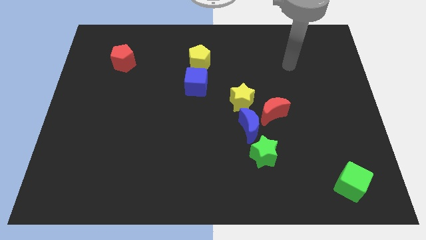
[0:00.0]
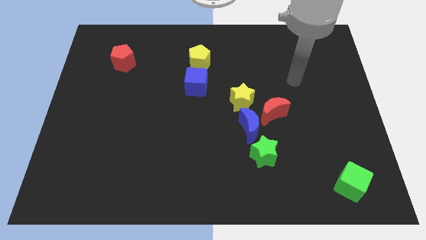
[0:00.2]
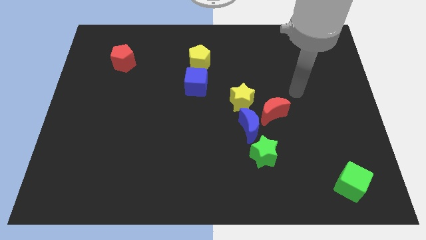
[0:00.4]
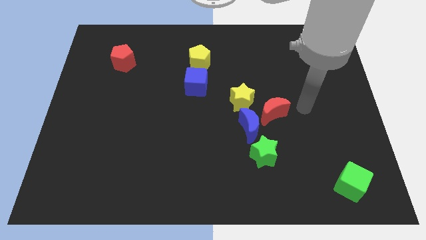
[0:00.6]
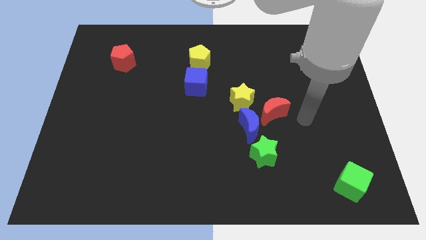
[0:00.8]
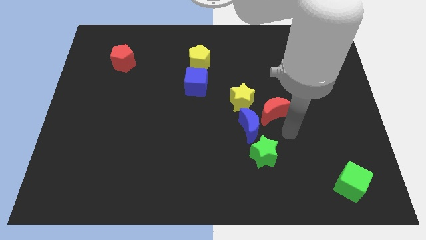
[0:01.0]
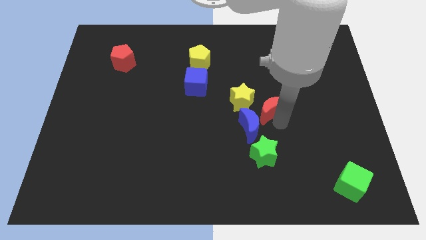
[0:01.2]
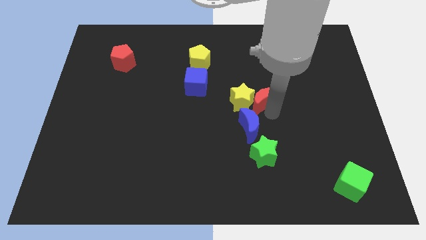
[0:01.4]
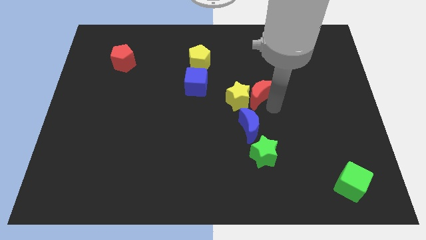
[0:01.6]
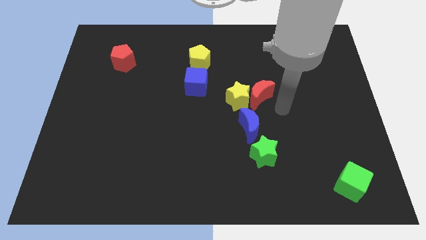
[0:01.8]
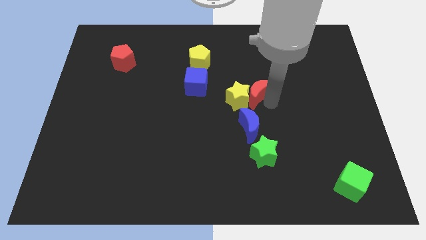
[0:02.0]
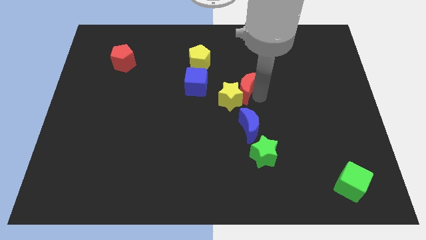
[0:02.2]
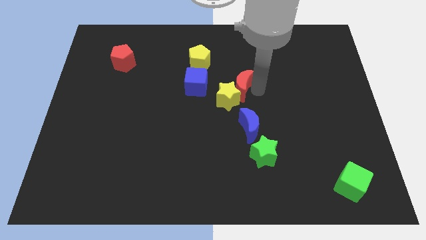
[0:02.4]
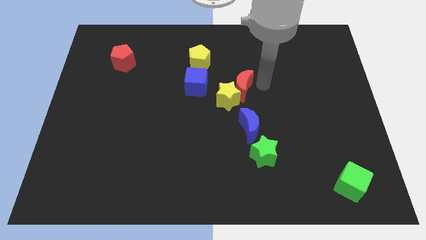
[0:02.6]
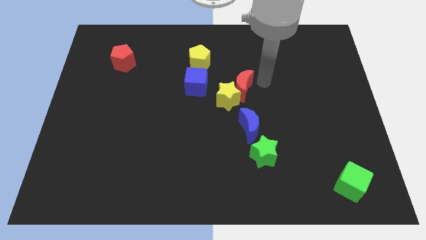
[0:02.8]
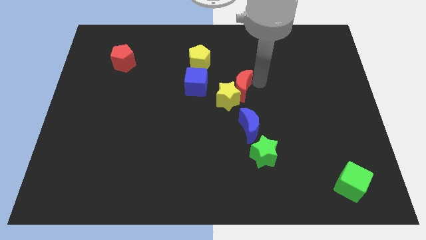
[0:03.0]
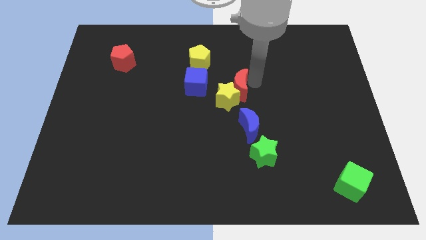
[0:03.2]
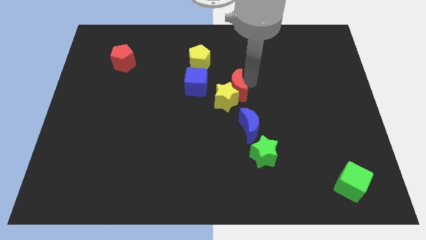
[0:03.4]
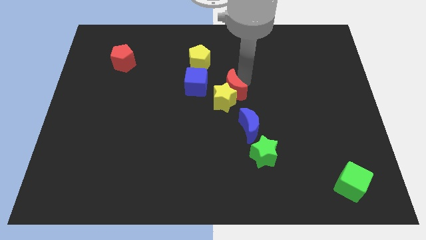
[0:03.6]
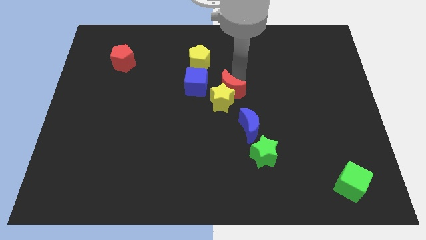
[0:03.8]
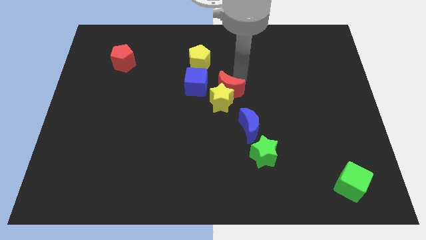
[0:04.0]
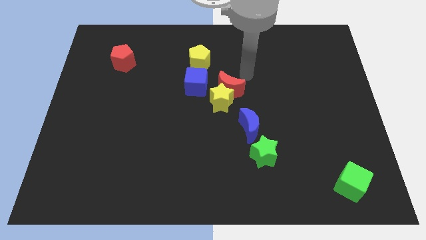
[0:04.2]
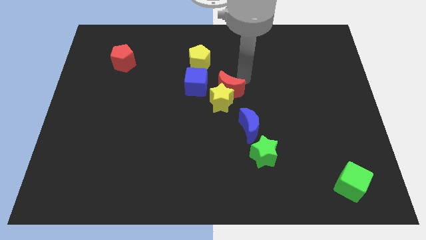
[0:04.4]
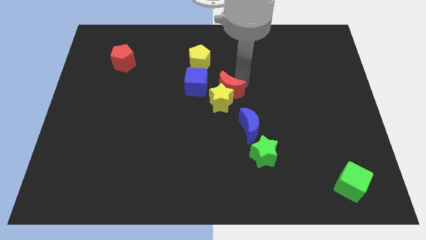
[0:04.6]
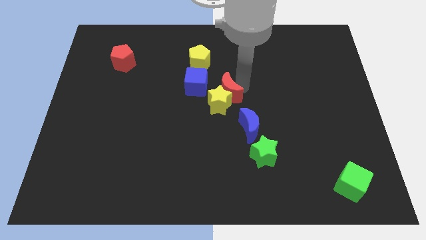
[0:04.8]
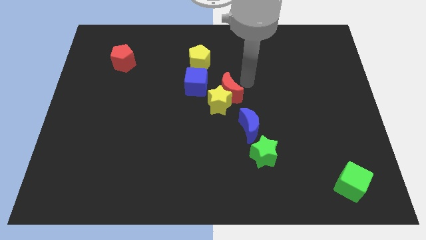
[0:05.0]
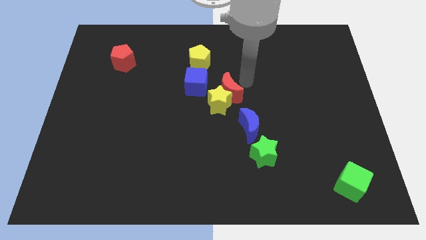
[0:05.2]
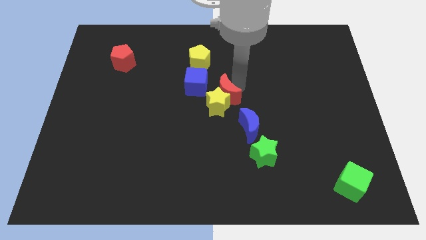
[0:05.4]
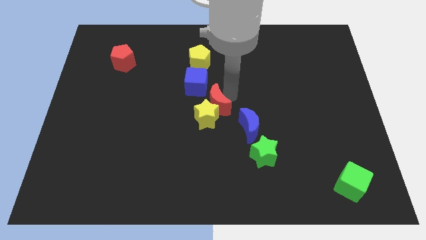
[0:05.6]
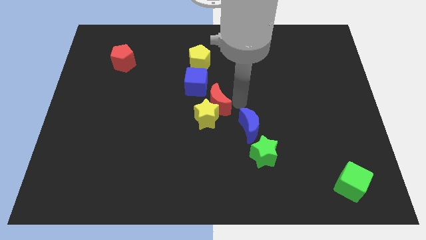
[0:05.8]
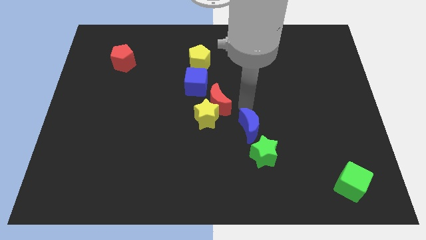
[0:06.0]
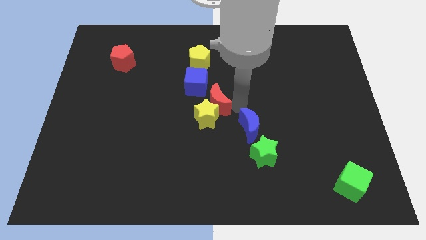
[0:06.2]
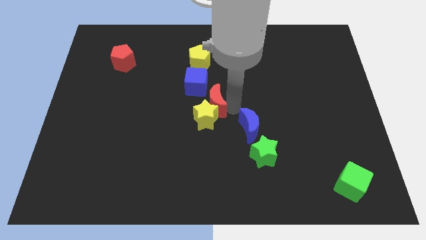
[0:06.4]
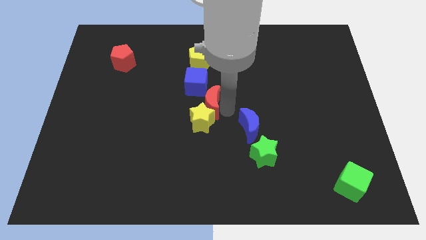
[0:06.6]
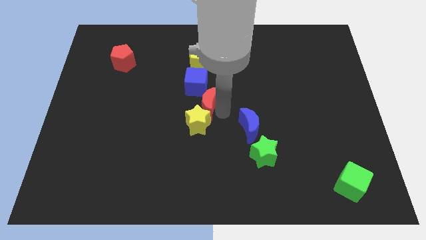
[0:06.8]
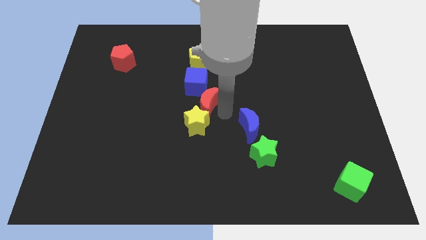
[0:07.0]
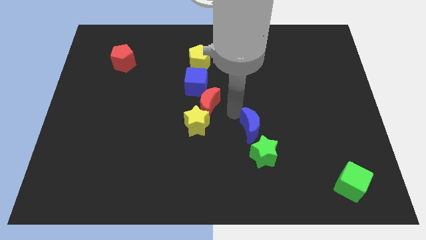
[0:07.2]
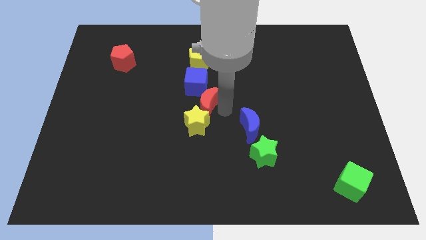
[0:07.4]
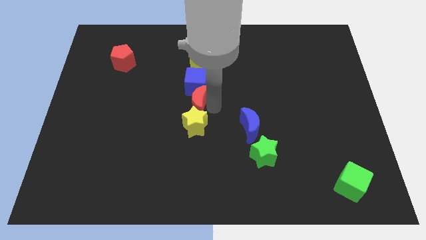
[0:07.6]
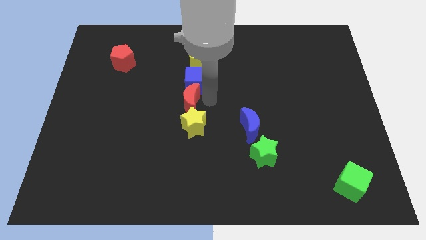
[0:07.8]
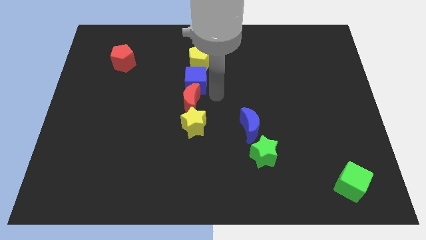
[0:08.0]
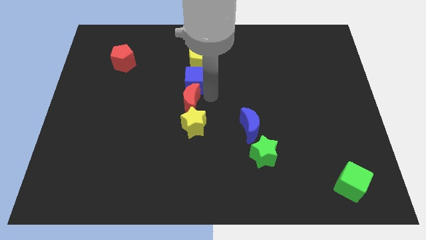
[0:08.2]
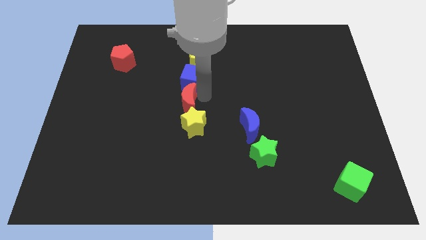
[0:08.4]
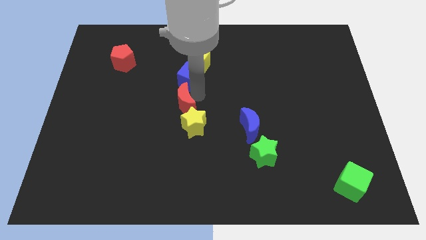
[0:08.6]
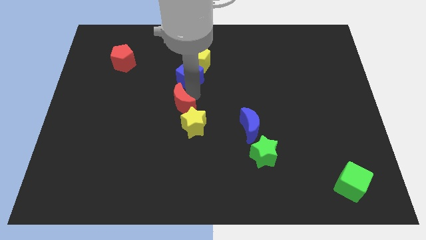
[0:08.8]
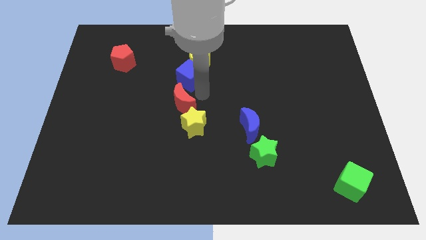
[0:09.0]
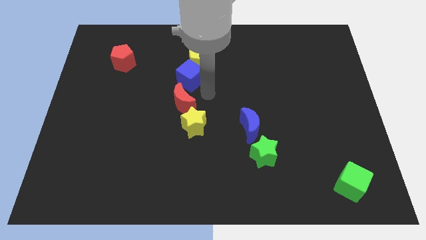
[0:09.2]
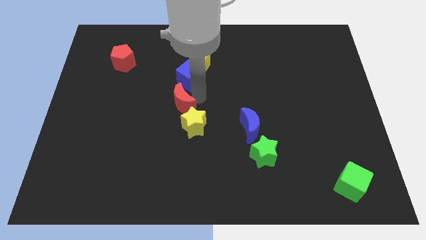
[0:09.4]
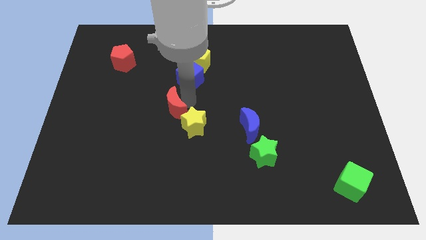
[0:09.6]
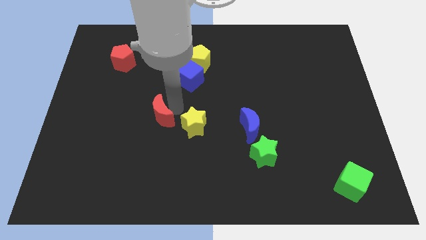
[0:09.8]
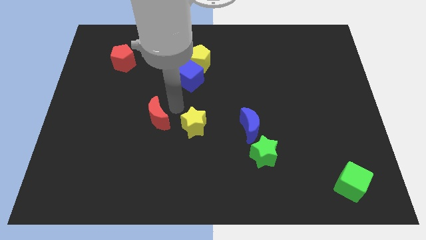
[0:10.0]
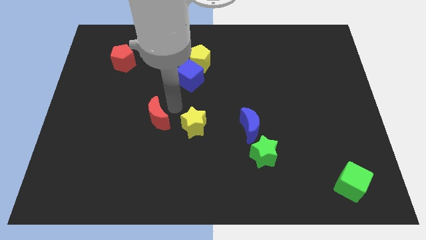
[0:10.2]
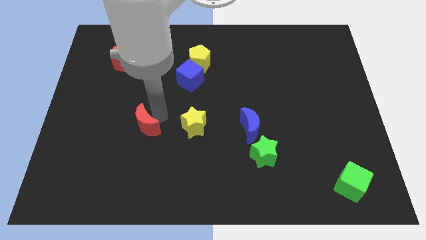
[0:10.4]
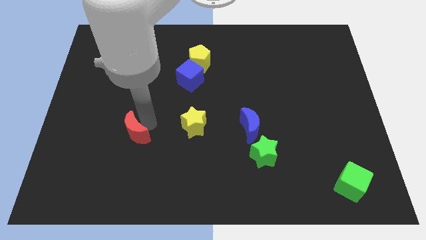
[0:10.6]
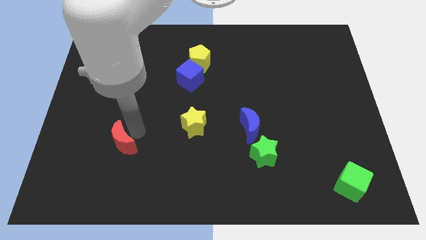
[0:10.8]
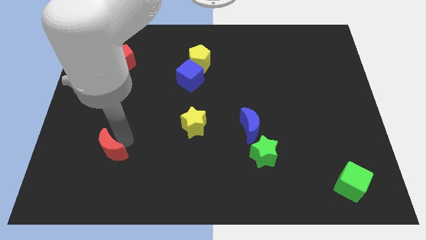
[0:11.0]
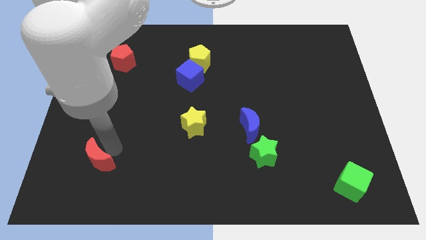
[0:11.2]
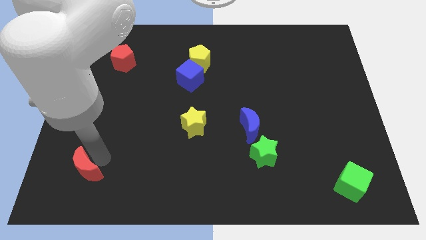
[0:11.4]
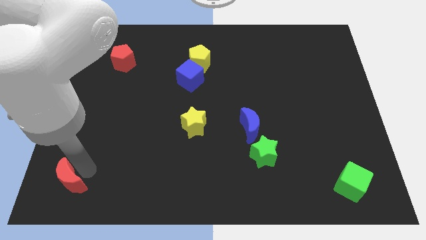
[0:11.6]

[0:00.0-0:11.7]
move the red moon to the lower left corner
